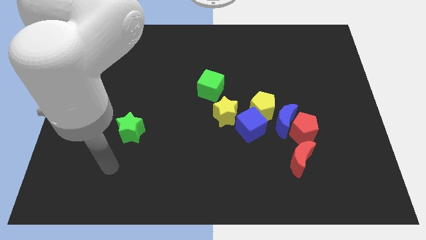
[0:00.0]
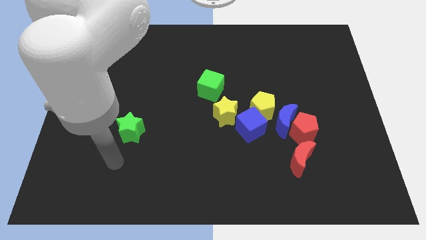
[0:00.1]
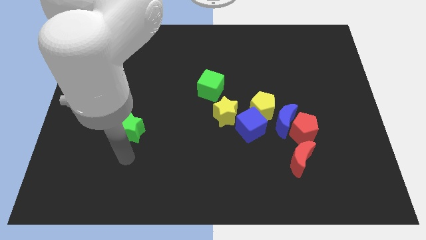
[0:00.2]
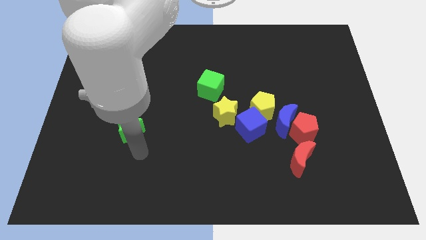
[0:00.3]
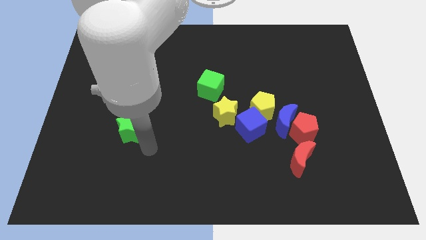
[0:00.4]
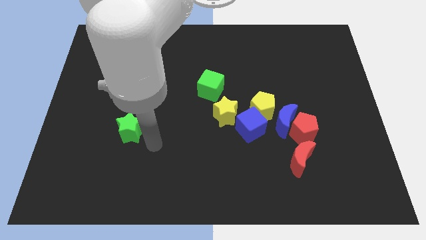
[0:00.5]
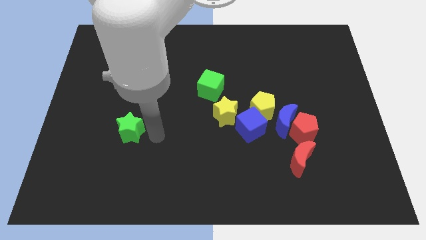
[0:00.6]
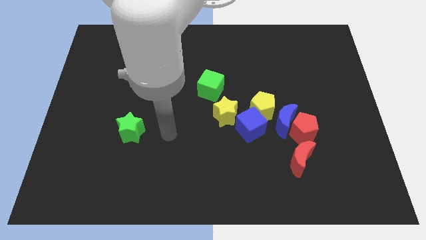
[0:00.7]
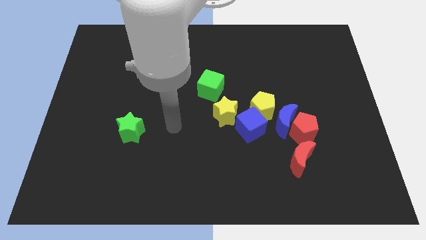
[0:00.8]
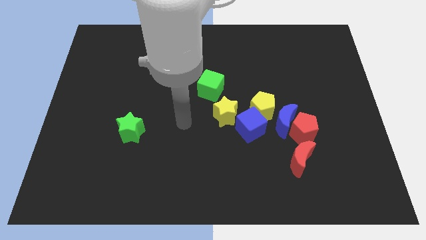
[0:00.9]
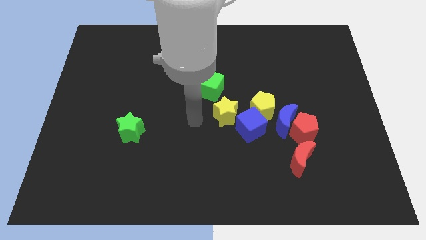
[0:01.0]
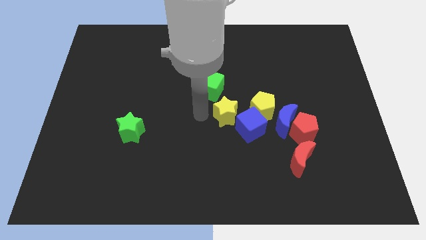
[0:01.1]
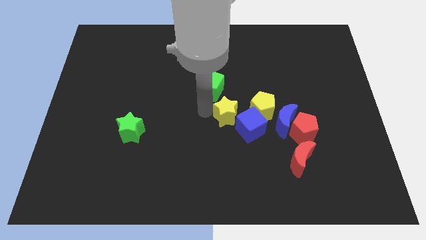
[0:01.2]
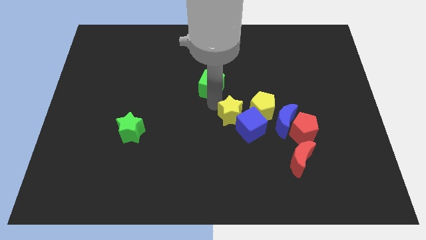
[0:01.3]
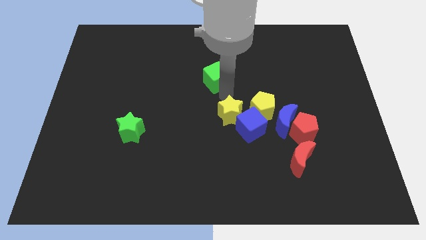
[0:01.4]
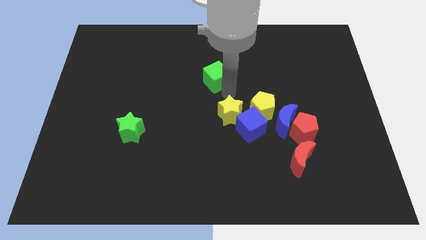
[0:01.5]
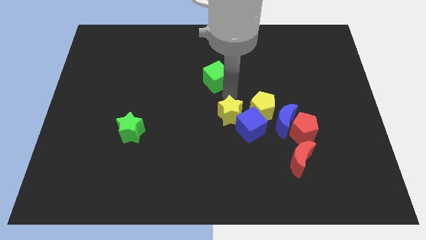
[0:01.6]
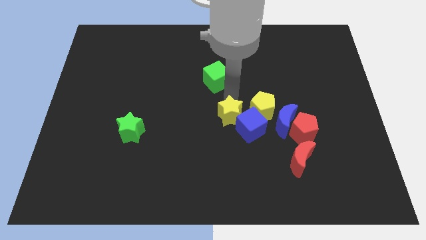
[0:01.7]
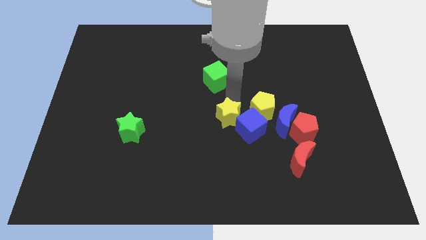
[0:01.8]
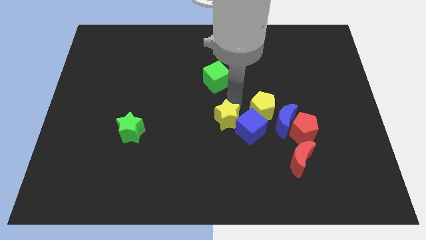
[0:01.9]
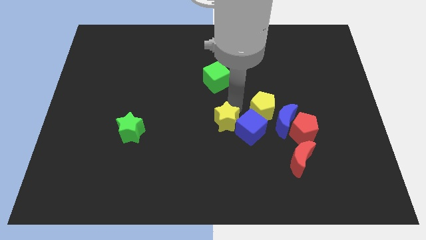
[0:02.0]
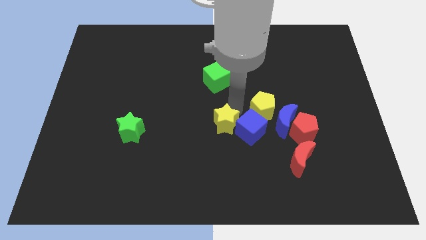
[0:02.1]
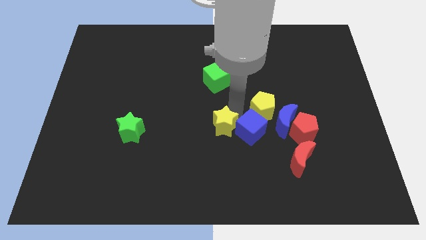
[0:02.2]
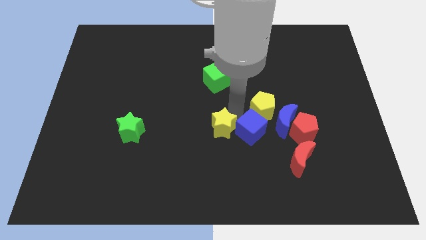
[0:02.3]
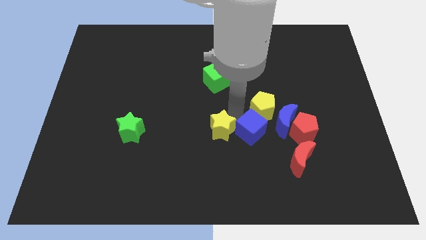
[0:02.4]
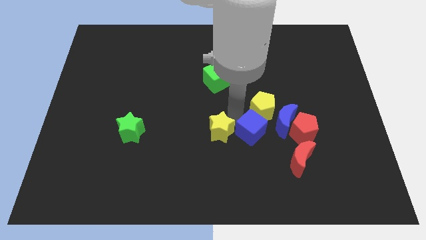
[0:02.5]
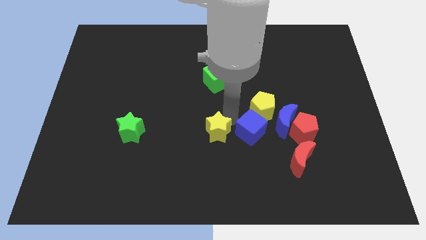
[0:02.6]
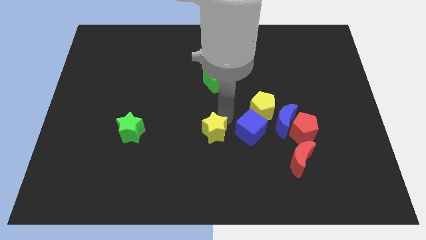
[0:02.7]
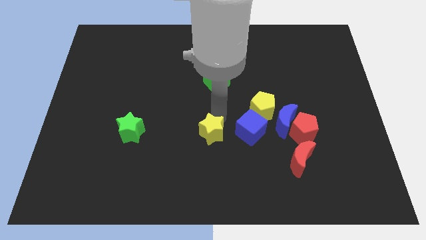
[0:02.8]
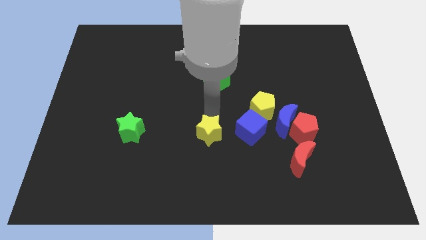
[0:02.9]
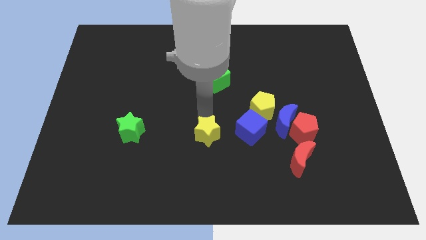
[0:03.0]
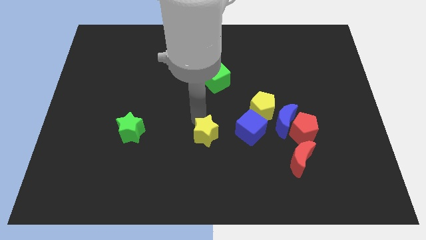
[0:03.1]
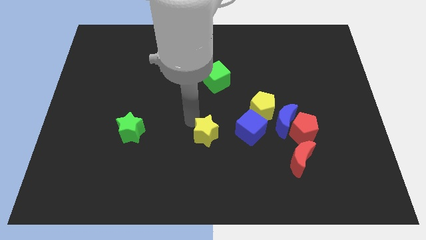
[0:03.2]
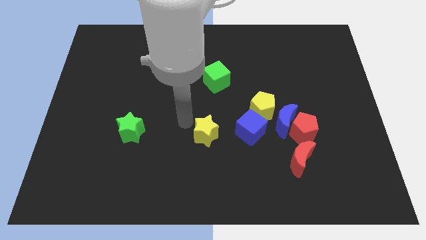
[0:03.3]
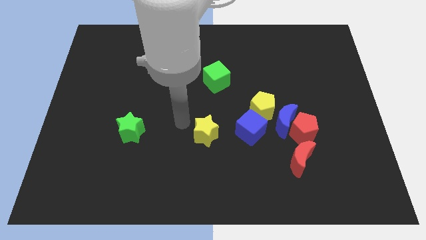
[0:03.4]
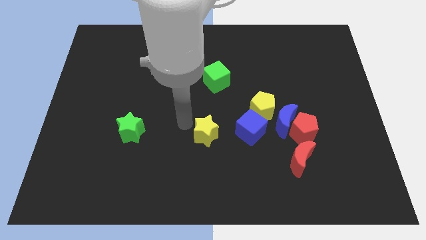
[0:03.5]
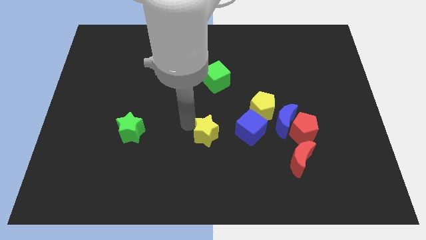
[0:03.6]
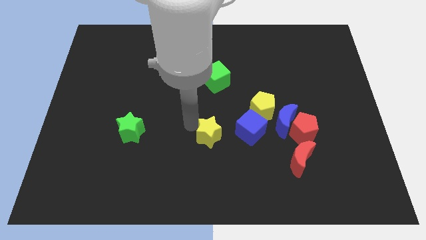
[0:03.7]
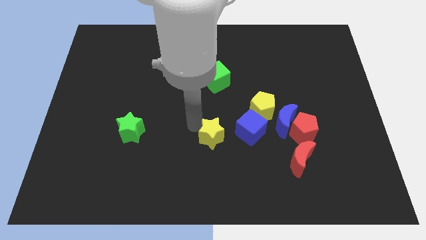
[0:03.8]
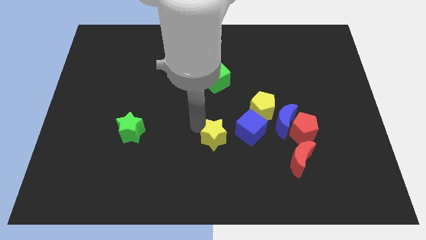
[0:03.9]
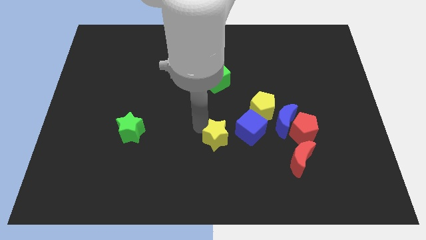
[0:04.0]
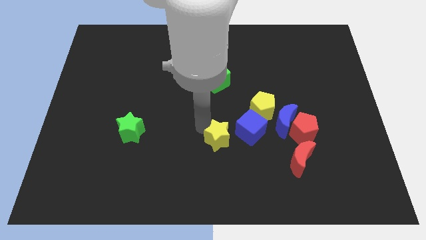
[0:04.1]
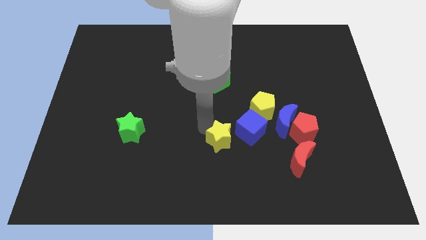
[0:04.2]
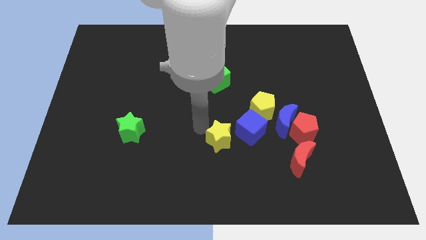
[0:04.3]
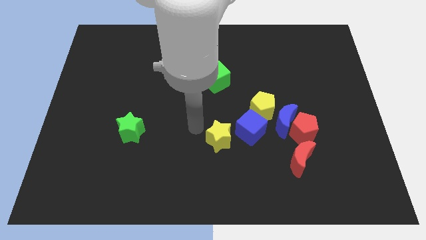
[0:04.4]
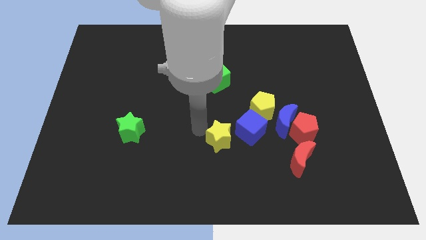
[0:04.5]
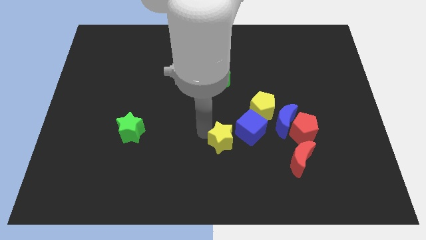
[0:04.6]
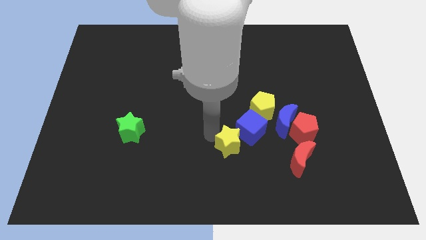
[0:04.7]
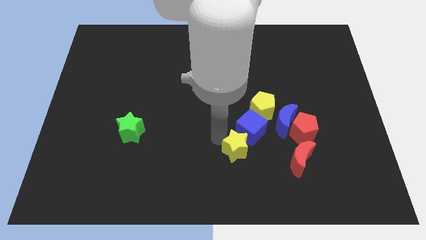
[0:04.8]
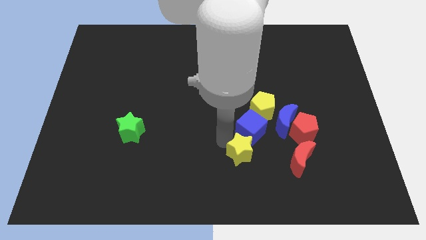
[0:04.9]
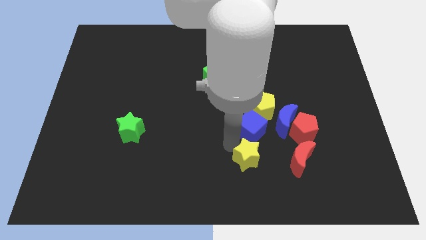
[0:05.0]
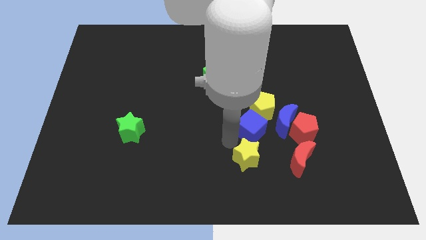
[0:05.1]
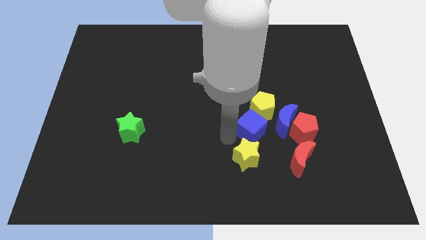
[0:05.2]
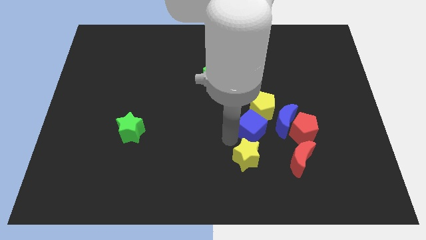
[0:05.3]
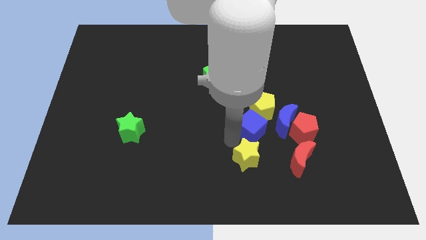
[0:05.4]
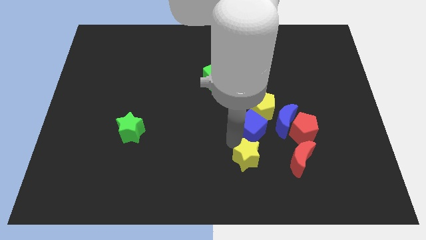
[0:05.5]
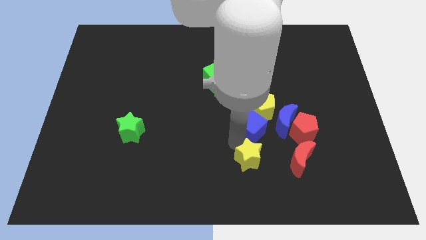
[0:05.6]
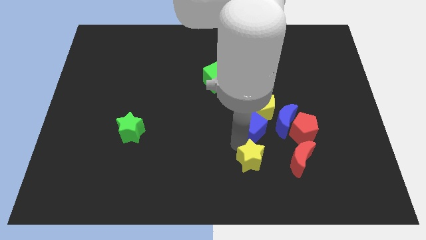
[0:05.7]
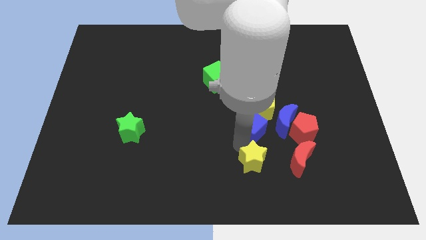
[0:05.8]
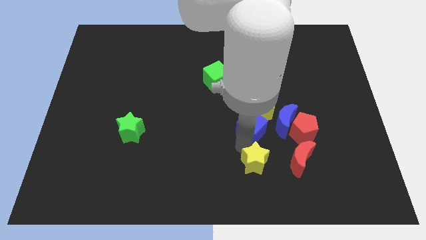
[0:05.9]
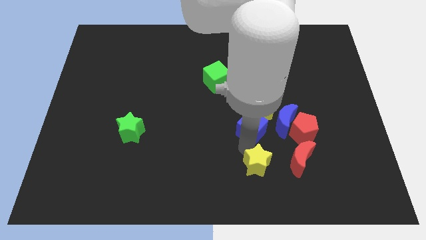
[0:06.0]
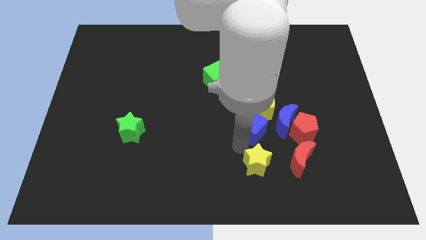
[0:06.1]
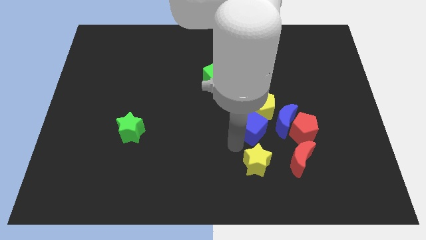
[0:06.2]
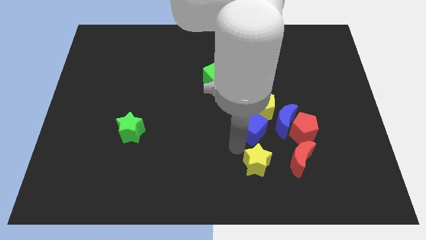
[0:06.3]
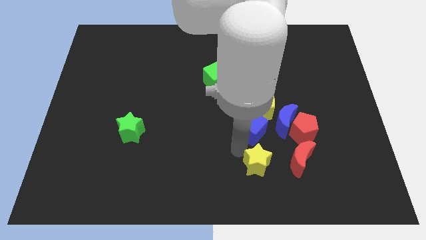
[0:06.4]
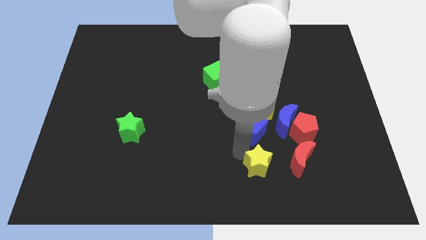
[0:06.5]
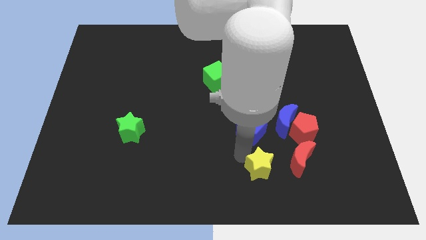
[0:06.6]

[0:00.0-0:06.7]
push the yellow star to the bottom left side of the red moon

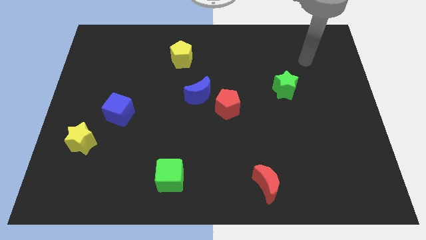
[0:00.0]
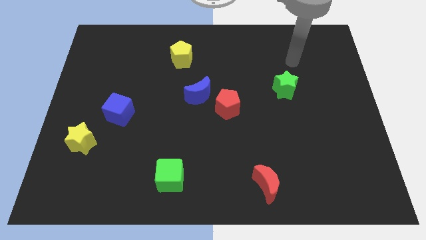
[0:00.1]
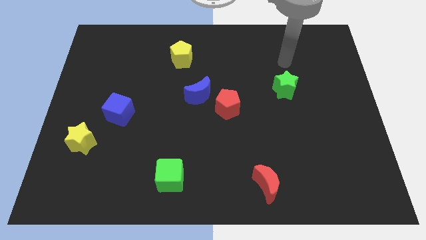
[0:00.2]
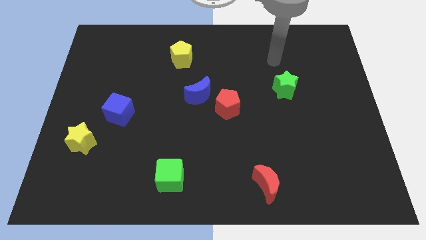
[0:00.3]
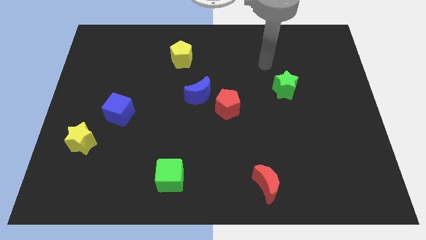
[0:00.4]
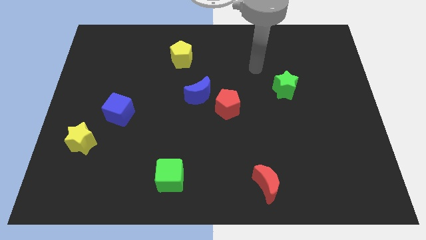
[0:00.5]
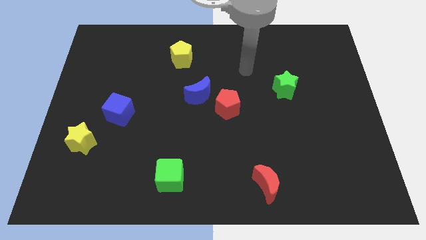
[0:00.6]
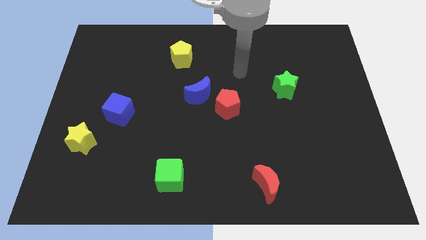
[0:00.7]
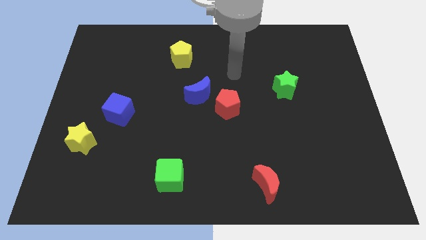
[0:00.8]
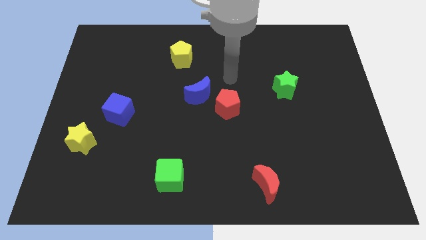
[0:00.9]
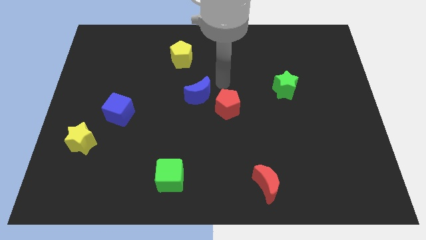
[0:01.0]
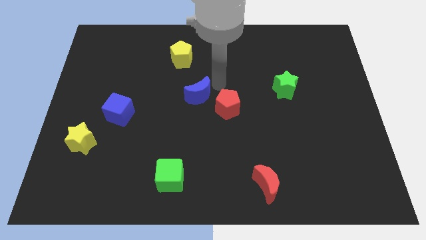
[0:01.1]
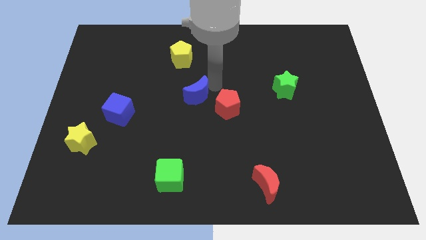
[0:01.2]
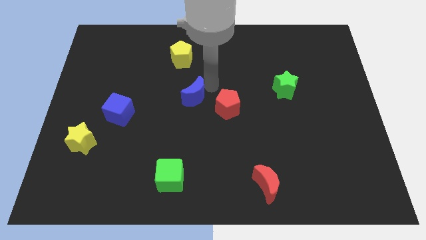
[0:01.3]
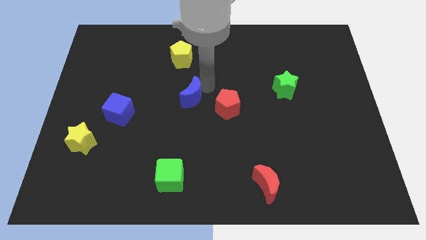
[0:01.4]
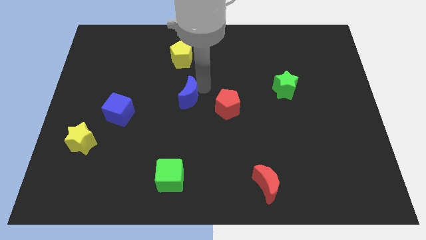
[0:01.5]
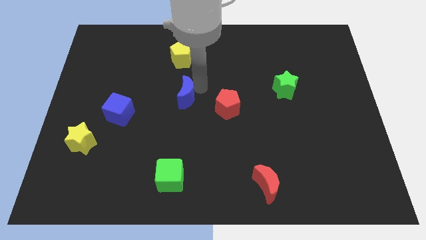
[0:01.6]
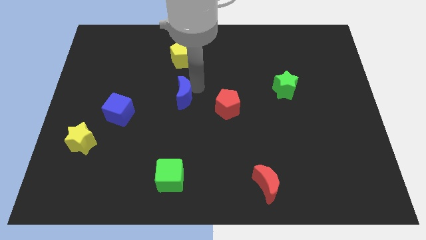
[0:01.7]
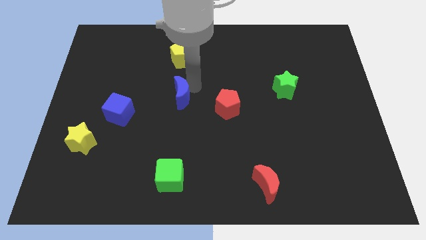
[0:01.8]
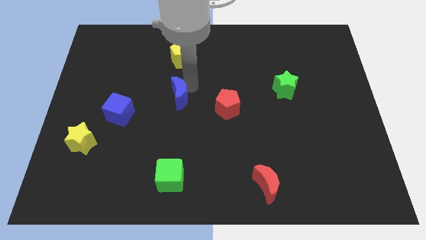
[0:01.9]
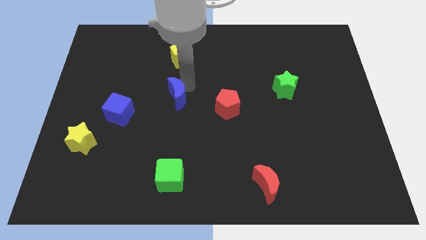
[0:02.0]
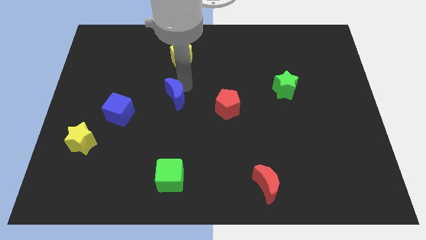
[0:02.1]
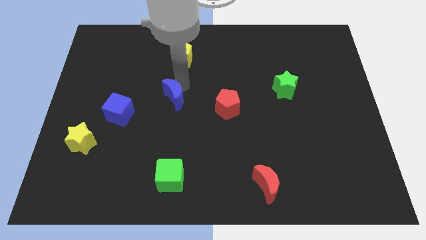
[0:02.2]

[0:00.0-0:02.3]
put the blue moon right of the blue cube
